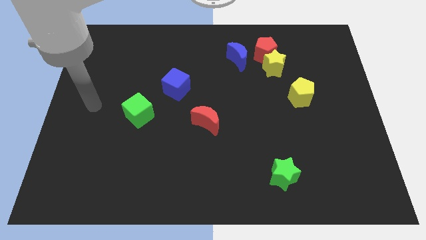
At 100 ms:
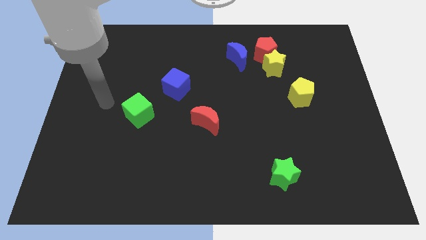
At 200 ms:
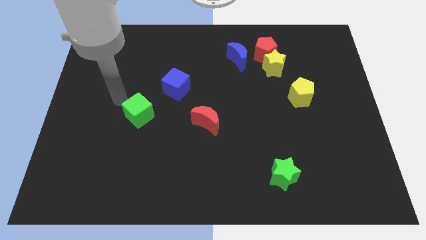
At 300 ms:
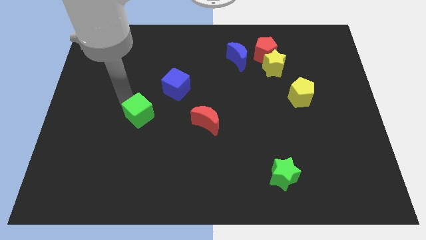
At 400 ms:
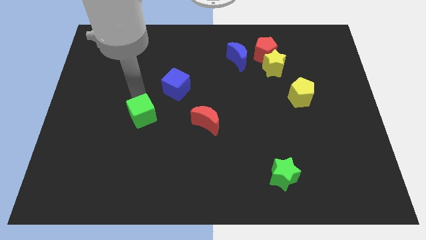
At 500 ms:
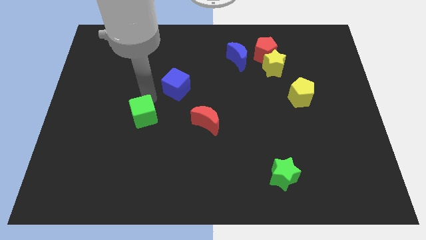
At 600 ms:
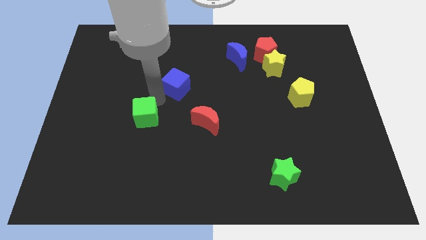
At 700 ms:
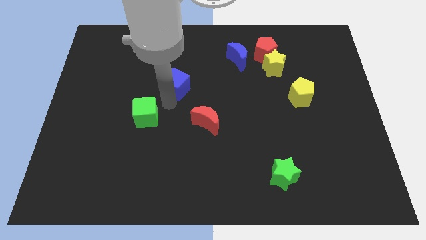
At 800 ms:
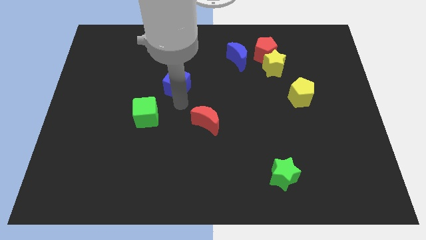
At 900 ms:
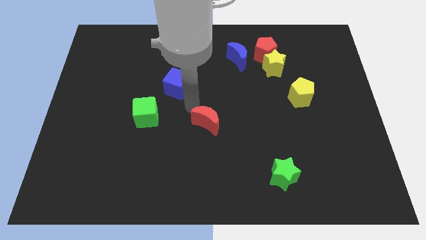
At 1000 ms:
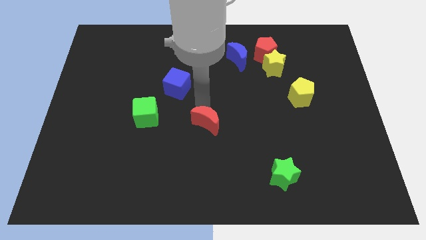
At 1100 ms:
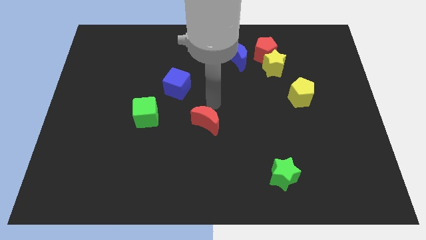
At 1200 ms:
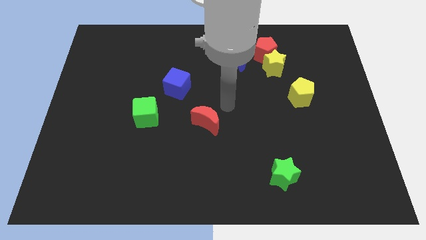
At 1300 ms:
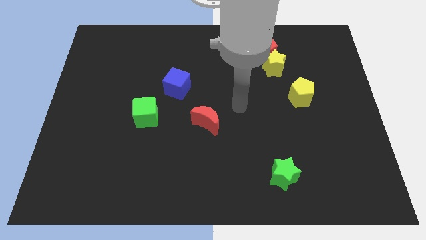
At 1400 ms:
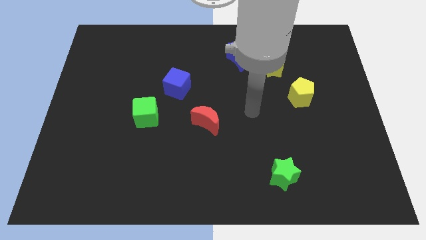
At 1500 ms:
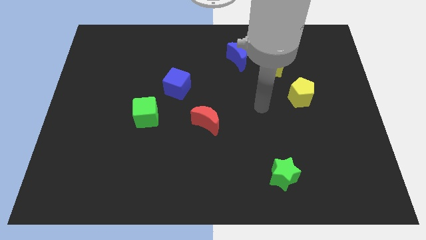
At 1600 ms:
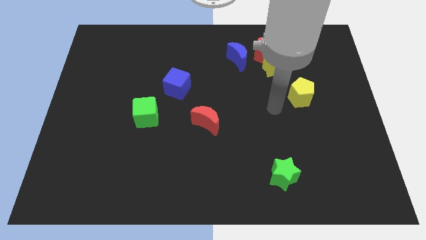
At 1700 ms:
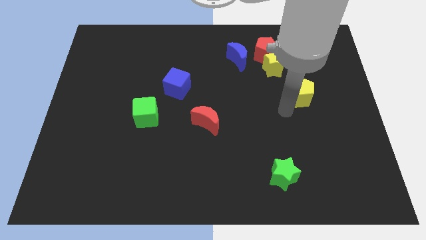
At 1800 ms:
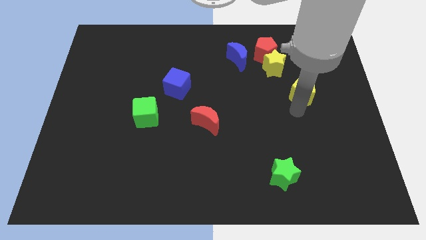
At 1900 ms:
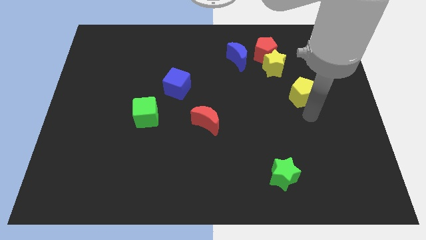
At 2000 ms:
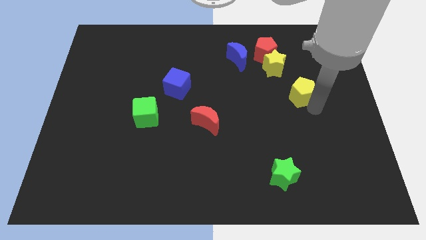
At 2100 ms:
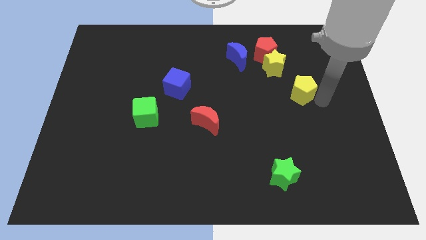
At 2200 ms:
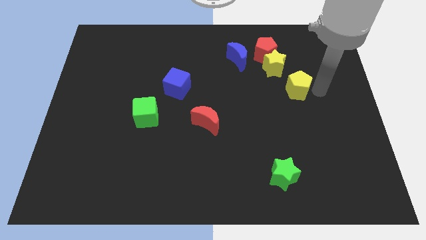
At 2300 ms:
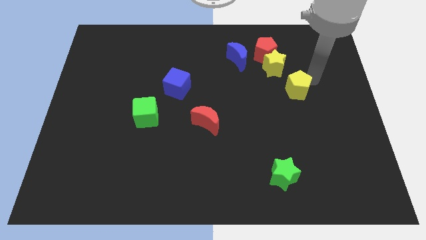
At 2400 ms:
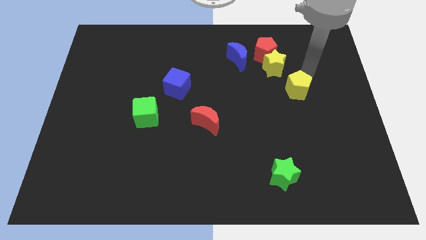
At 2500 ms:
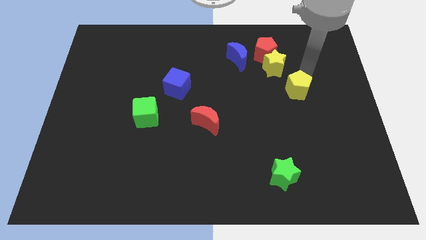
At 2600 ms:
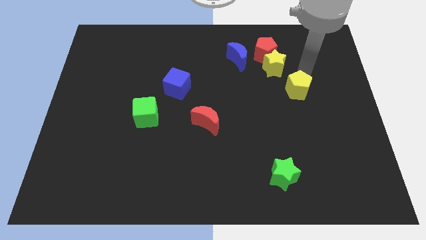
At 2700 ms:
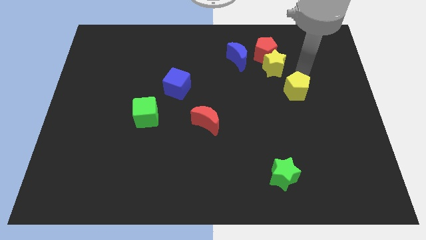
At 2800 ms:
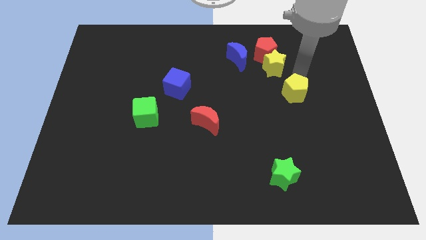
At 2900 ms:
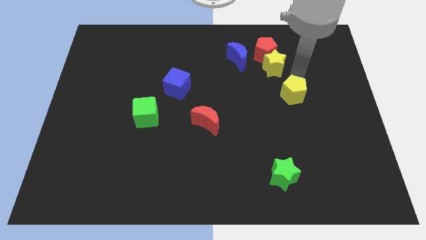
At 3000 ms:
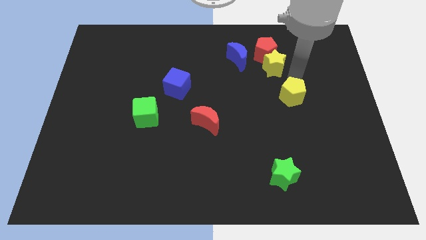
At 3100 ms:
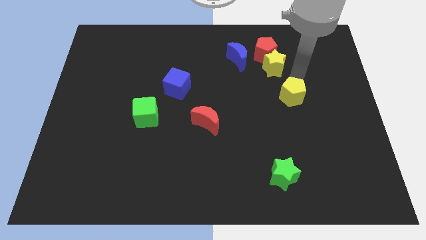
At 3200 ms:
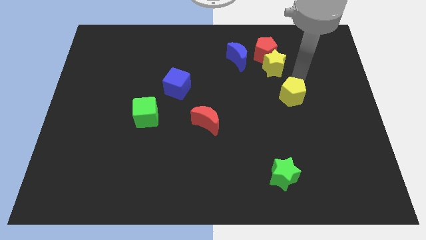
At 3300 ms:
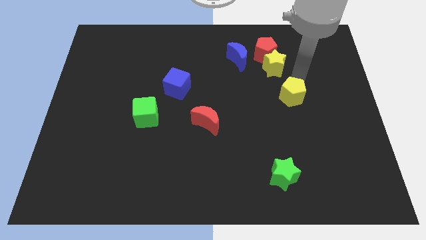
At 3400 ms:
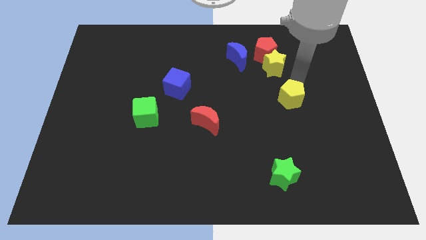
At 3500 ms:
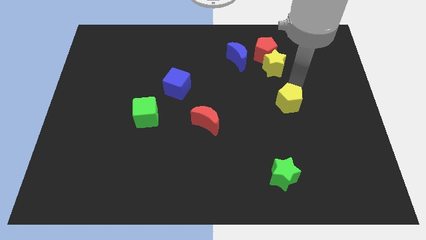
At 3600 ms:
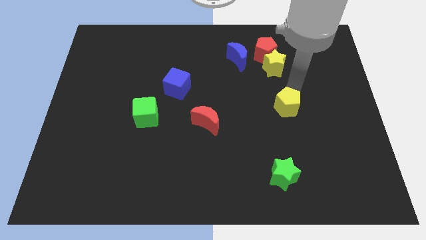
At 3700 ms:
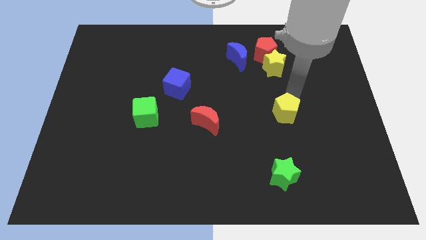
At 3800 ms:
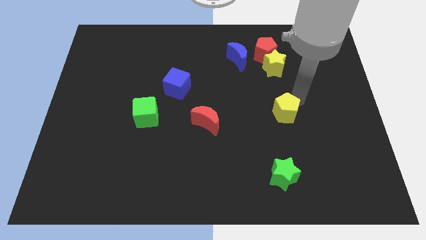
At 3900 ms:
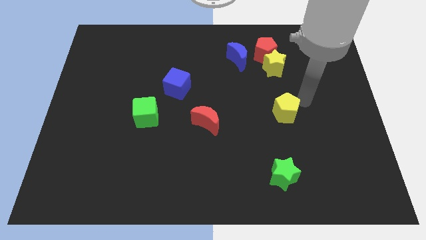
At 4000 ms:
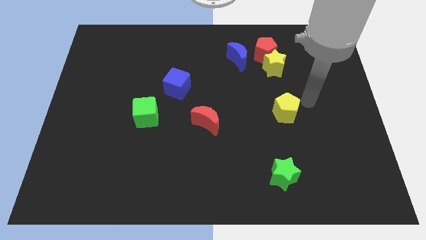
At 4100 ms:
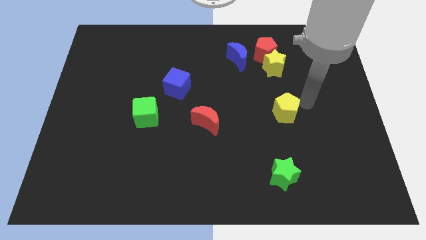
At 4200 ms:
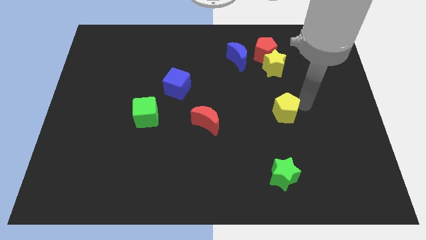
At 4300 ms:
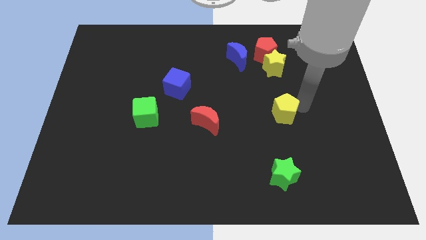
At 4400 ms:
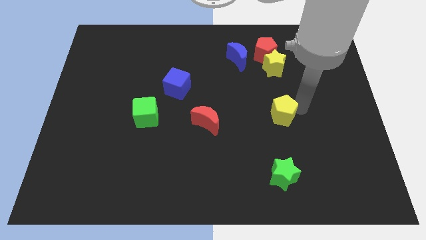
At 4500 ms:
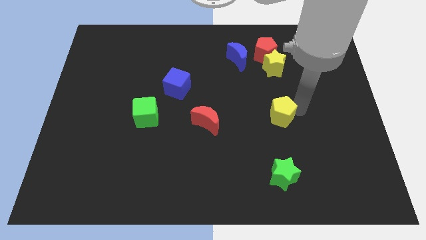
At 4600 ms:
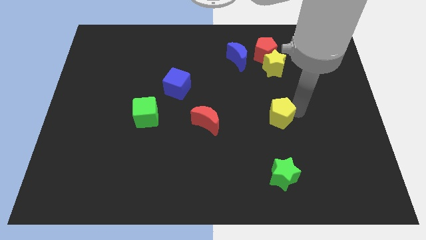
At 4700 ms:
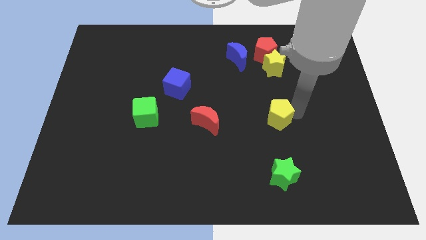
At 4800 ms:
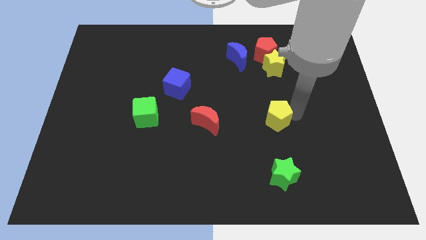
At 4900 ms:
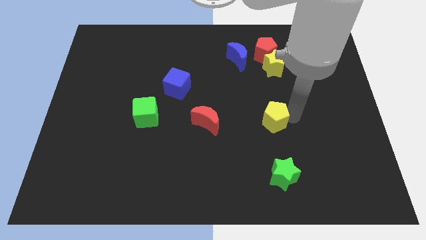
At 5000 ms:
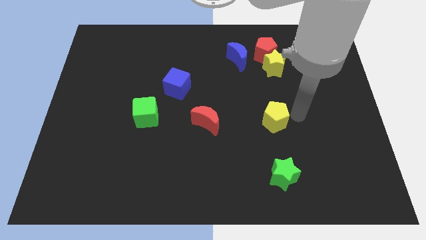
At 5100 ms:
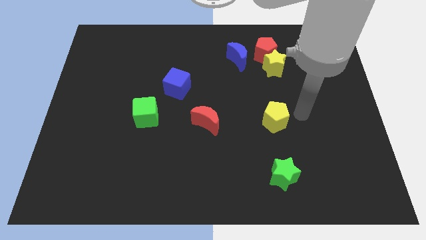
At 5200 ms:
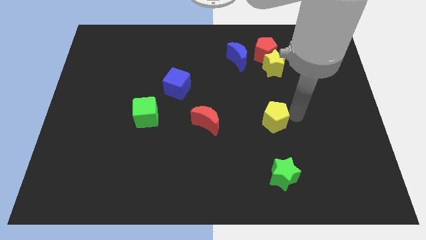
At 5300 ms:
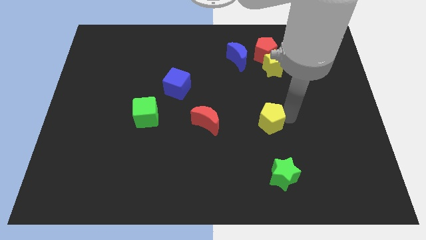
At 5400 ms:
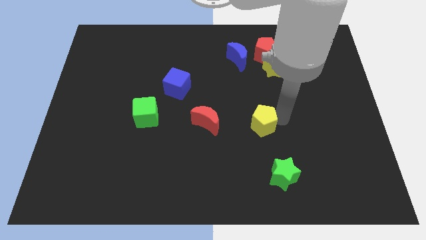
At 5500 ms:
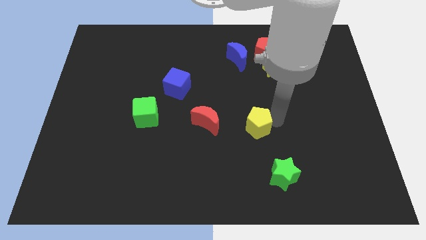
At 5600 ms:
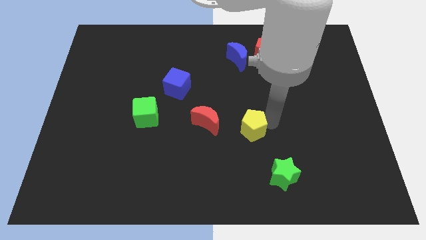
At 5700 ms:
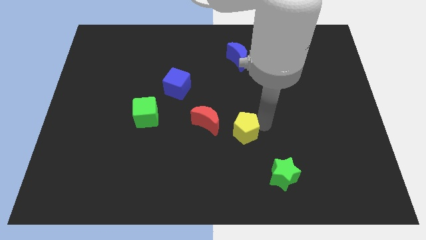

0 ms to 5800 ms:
slide the yellow pentagon diagonally down and to the right of the red moon
